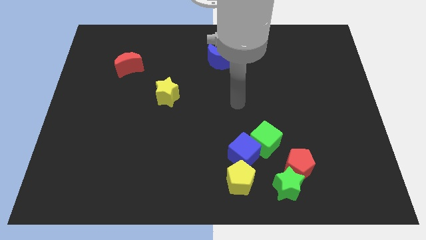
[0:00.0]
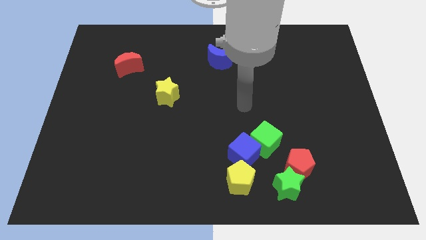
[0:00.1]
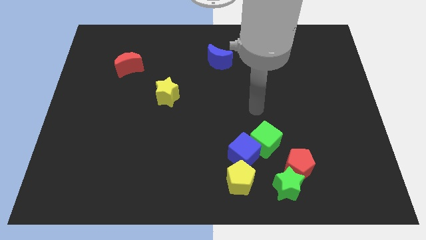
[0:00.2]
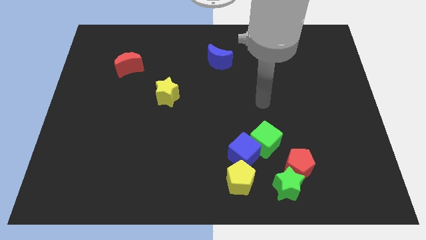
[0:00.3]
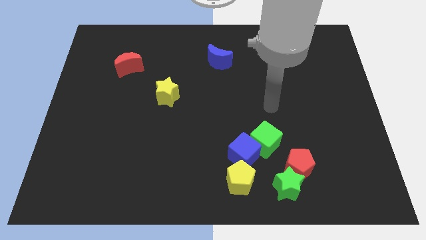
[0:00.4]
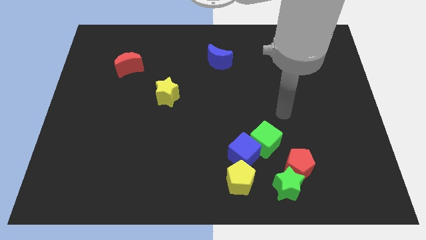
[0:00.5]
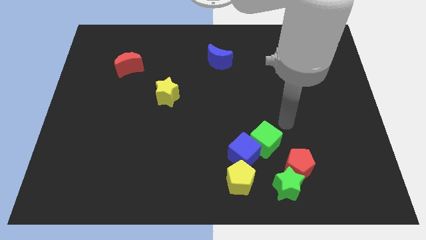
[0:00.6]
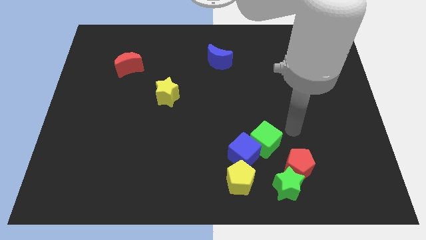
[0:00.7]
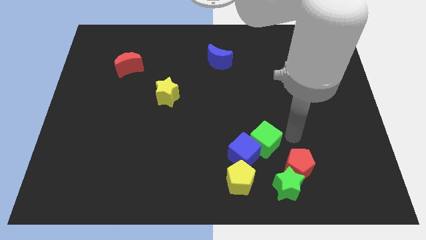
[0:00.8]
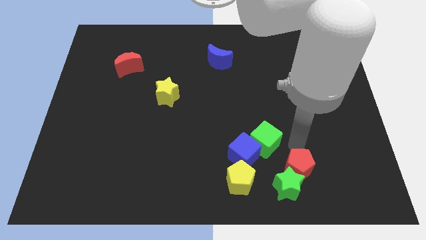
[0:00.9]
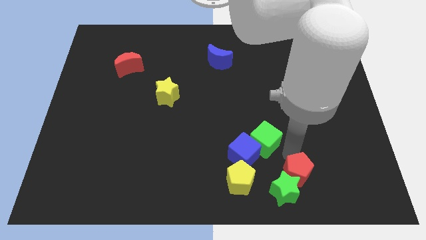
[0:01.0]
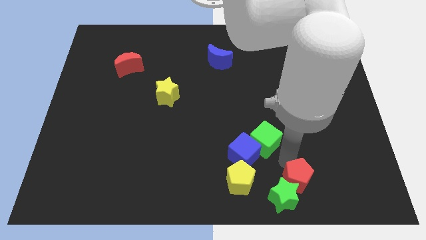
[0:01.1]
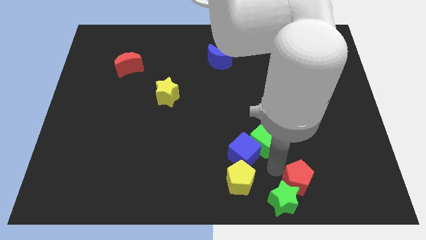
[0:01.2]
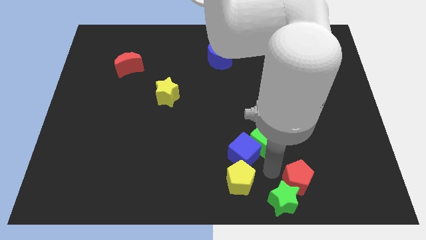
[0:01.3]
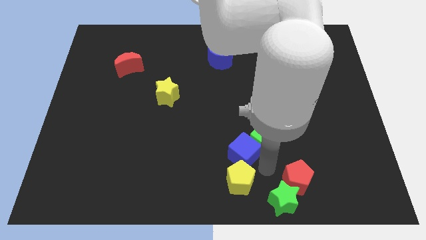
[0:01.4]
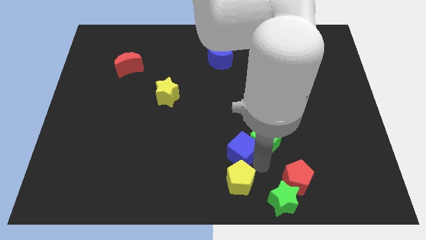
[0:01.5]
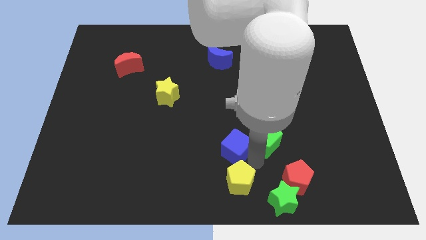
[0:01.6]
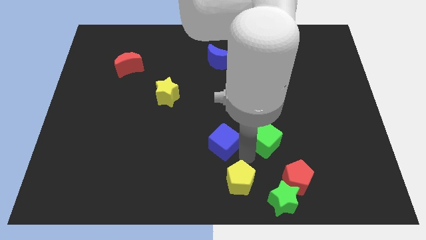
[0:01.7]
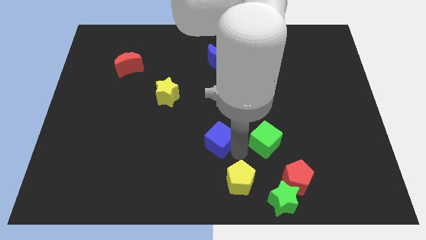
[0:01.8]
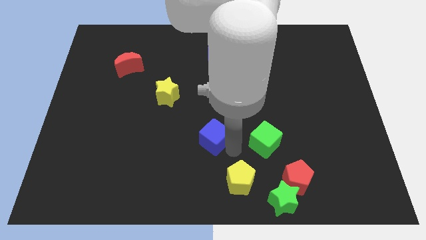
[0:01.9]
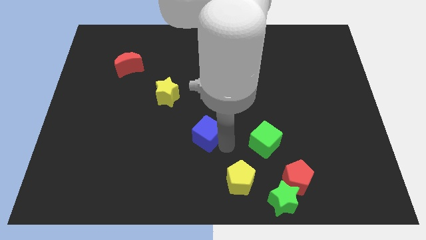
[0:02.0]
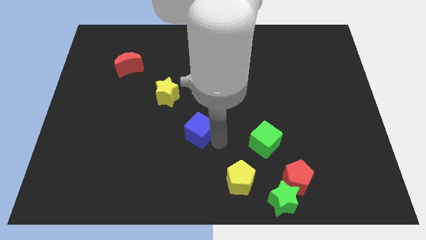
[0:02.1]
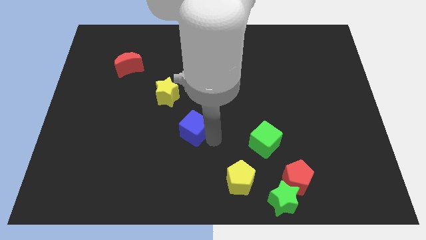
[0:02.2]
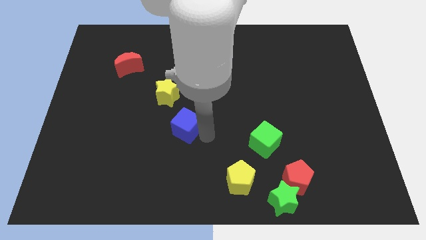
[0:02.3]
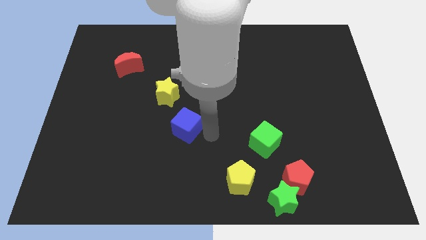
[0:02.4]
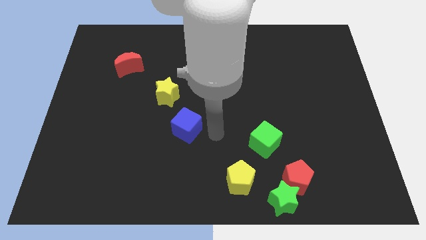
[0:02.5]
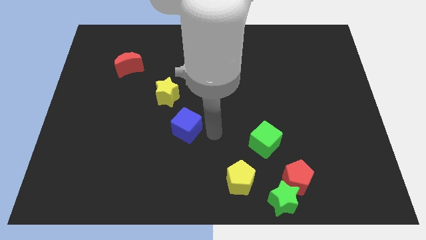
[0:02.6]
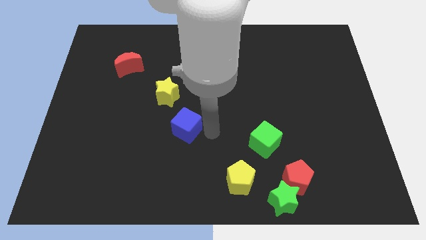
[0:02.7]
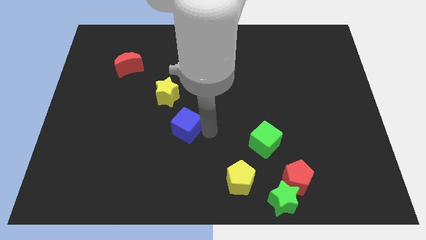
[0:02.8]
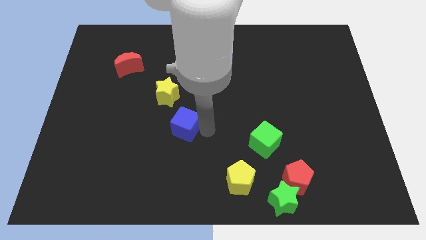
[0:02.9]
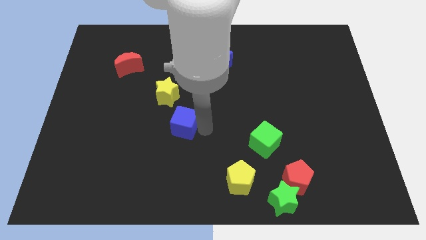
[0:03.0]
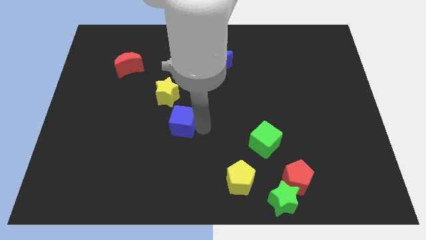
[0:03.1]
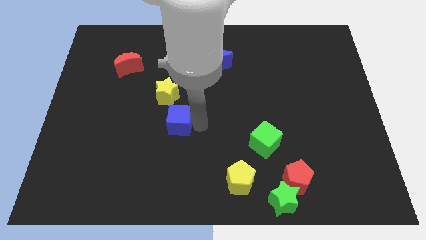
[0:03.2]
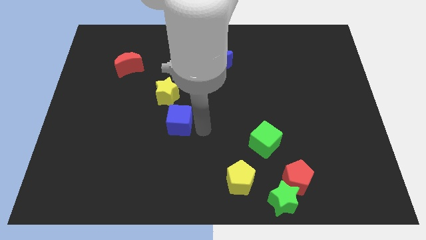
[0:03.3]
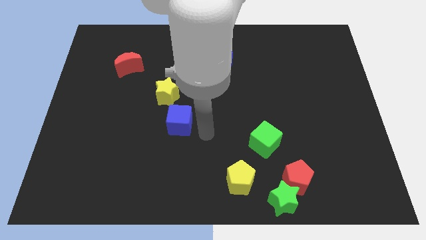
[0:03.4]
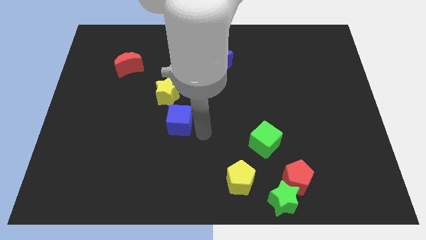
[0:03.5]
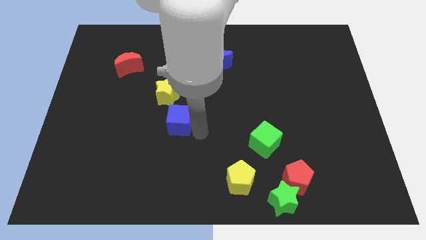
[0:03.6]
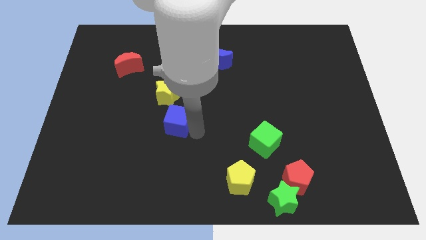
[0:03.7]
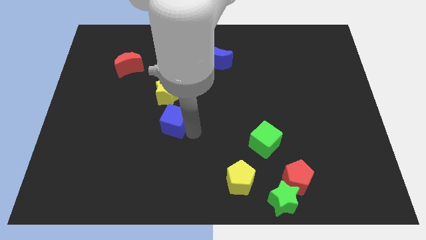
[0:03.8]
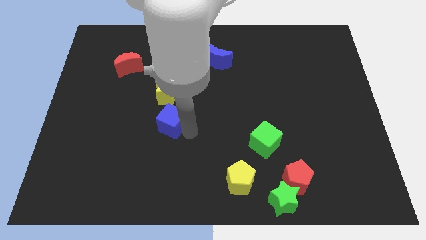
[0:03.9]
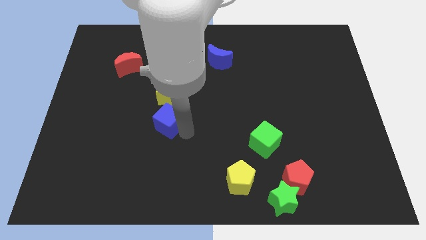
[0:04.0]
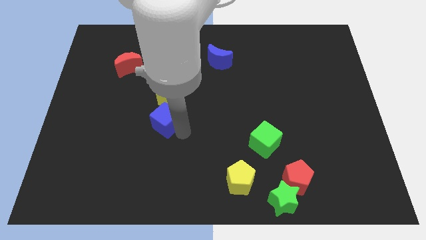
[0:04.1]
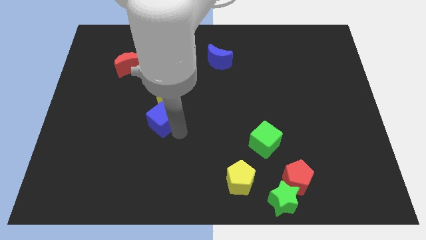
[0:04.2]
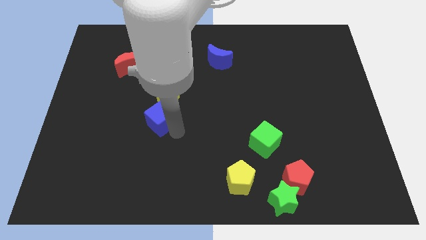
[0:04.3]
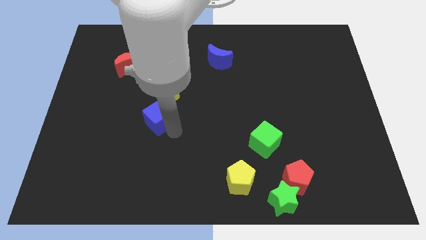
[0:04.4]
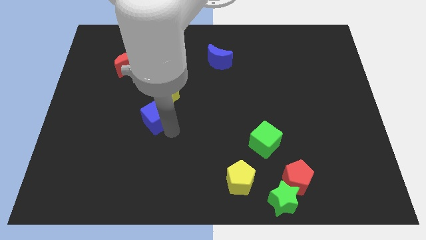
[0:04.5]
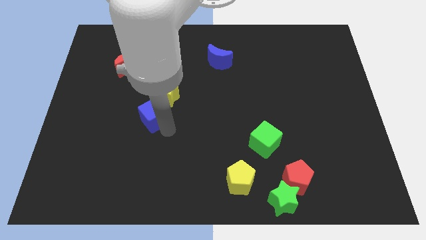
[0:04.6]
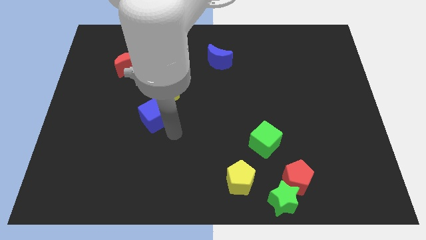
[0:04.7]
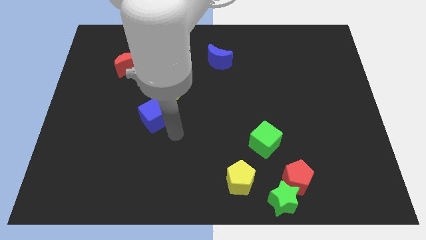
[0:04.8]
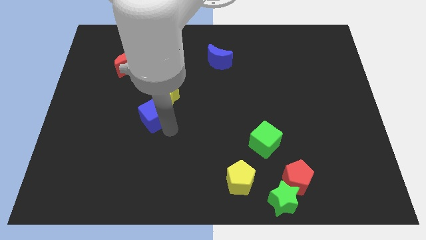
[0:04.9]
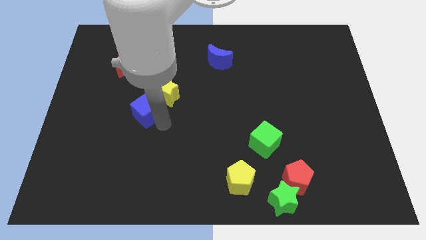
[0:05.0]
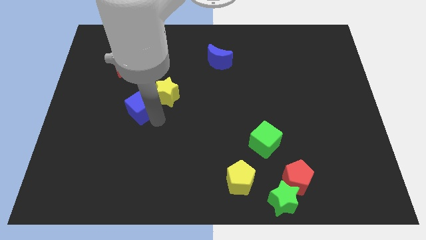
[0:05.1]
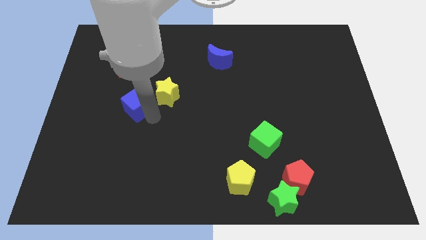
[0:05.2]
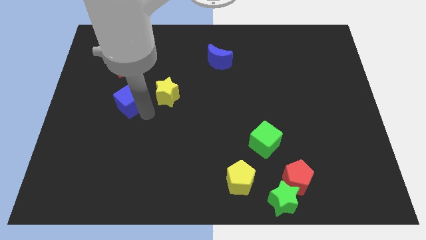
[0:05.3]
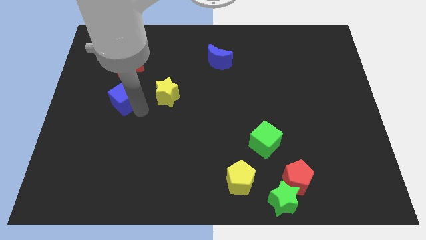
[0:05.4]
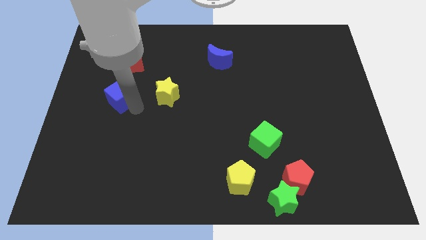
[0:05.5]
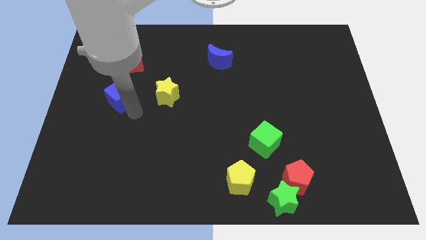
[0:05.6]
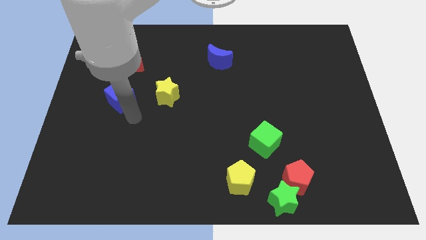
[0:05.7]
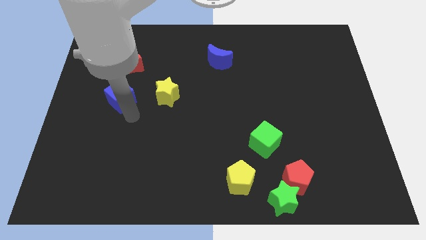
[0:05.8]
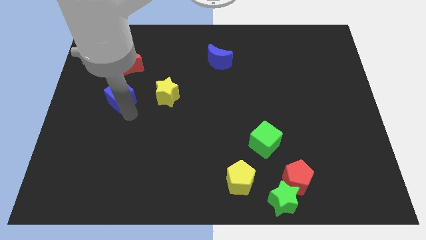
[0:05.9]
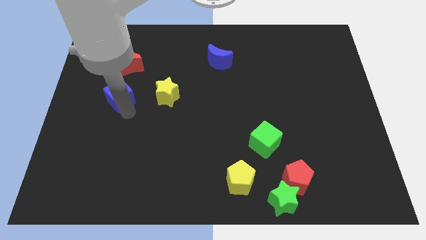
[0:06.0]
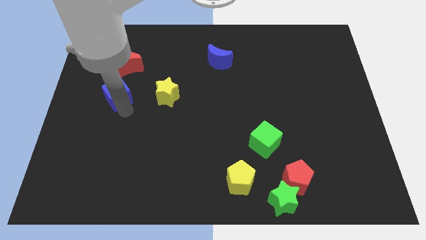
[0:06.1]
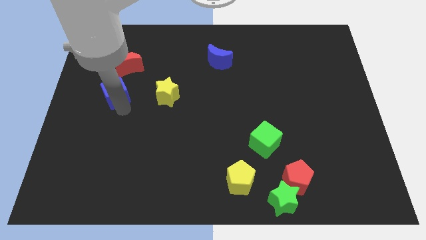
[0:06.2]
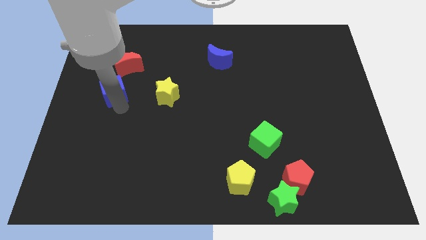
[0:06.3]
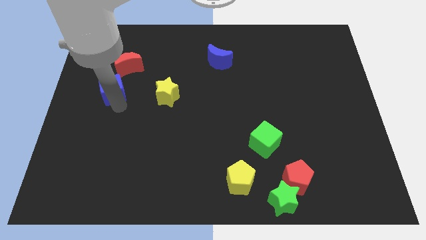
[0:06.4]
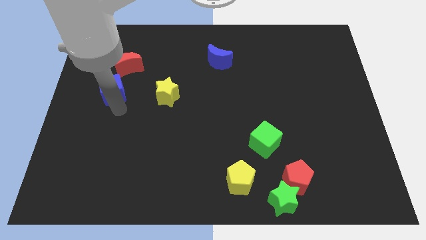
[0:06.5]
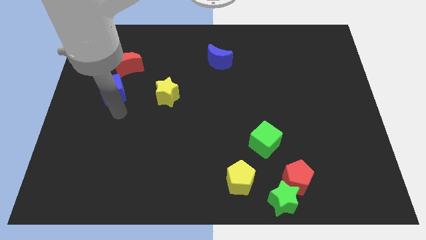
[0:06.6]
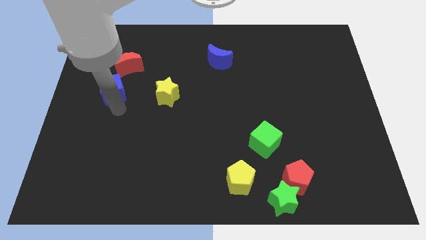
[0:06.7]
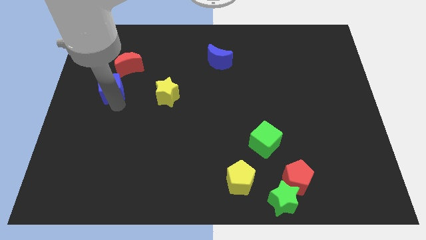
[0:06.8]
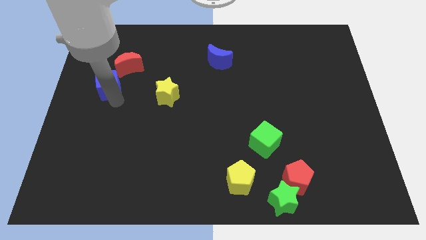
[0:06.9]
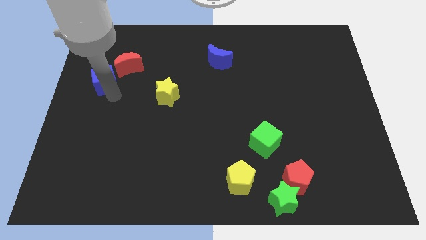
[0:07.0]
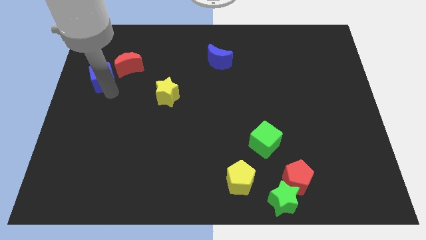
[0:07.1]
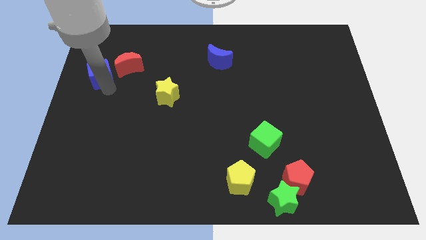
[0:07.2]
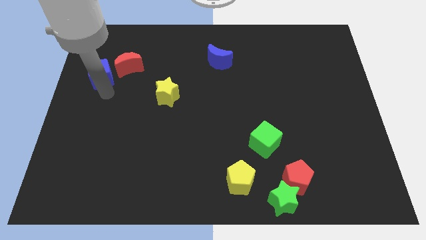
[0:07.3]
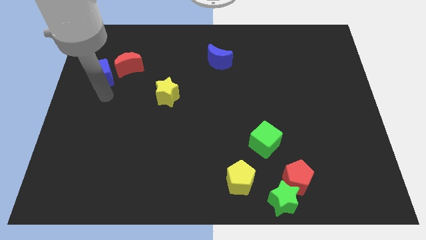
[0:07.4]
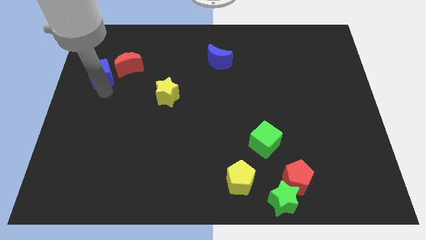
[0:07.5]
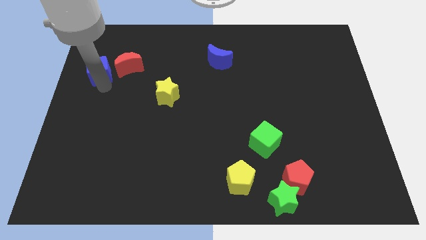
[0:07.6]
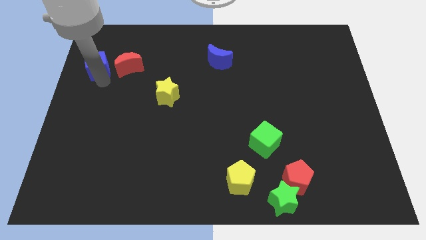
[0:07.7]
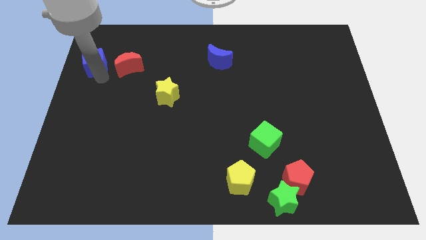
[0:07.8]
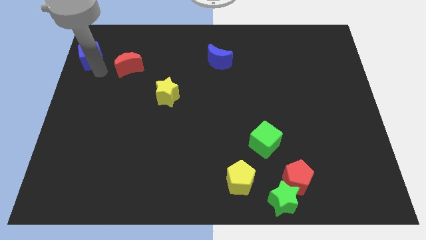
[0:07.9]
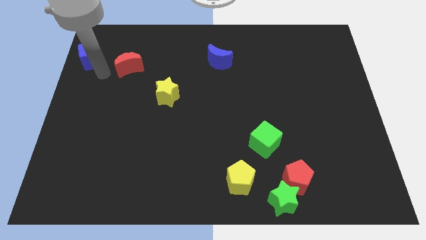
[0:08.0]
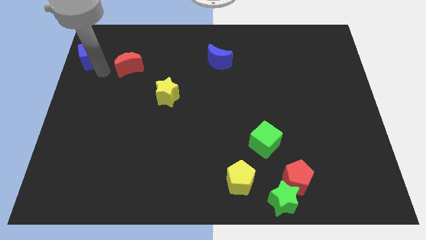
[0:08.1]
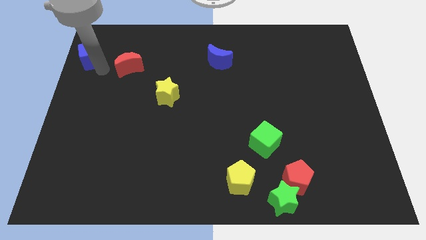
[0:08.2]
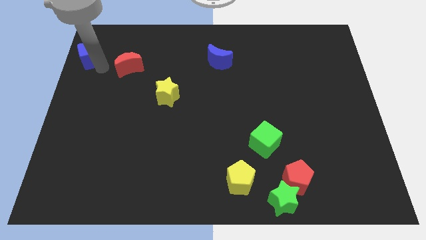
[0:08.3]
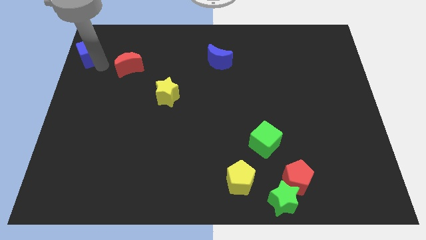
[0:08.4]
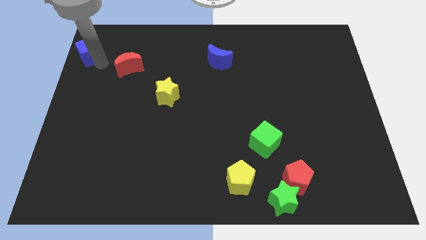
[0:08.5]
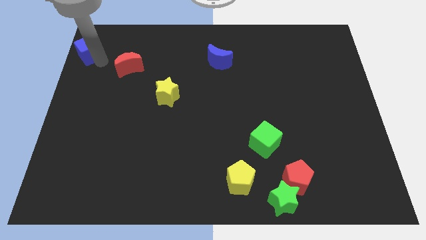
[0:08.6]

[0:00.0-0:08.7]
push the blue cube to the top left
